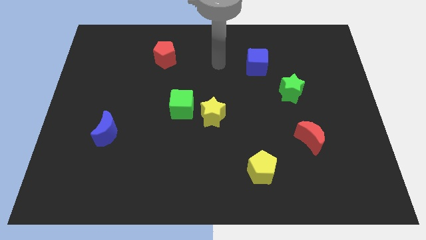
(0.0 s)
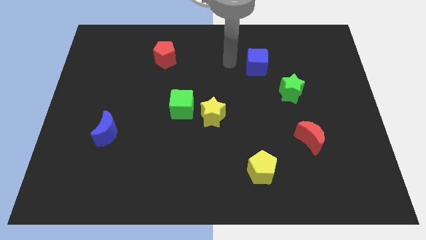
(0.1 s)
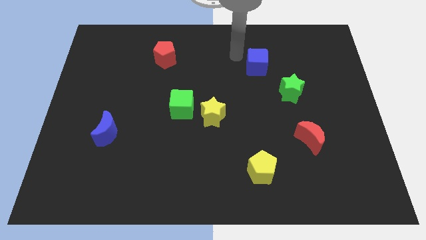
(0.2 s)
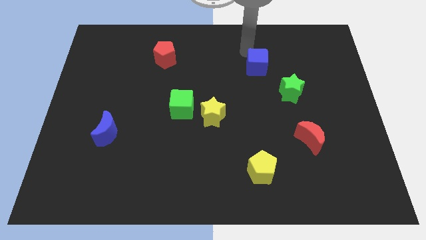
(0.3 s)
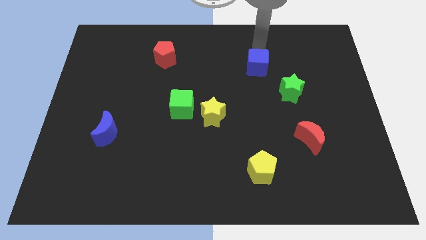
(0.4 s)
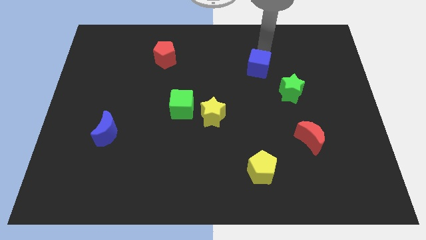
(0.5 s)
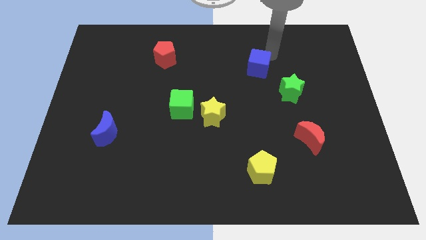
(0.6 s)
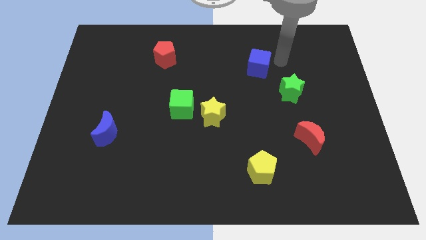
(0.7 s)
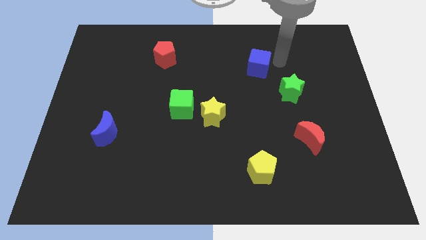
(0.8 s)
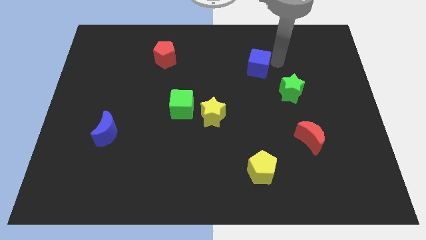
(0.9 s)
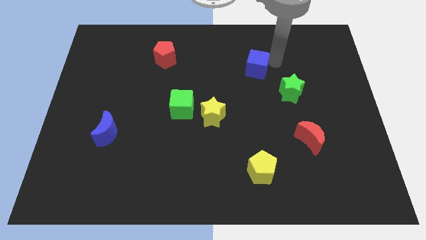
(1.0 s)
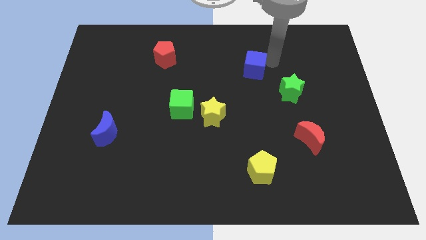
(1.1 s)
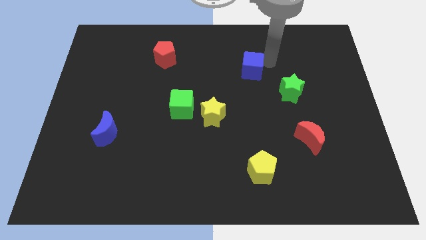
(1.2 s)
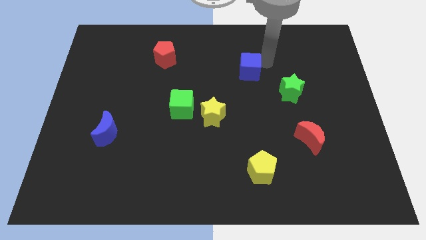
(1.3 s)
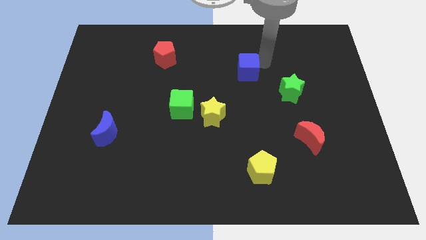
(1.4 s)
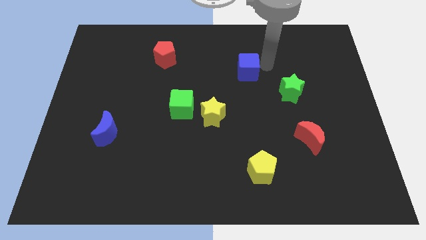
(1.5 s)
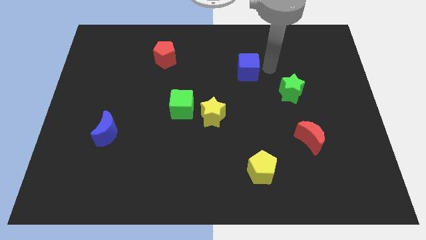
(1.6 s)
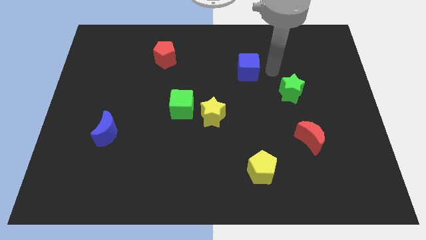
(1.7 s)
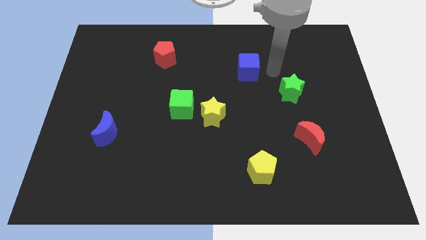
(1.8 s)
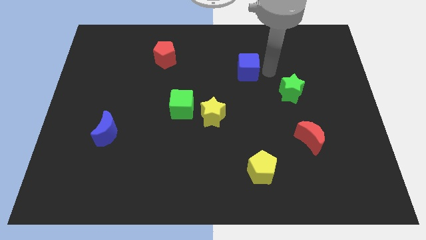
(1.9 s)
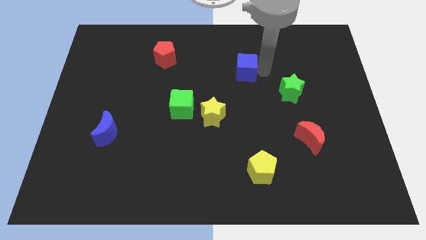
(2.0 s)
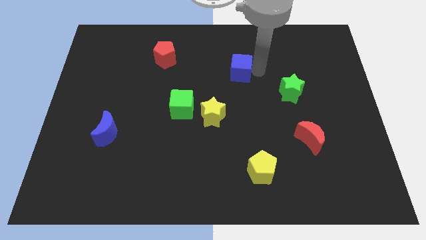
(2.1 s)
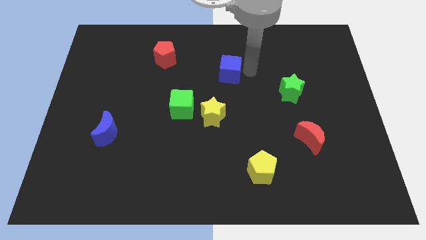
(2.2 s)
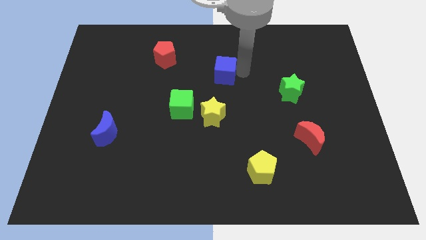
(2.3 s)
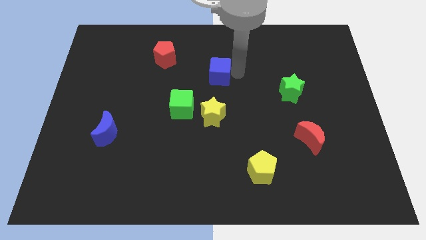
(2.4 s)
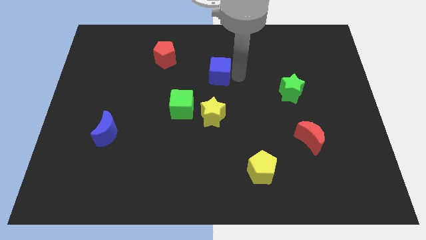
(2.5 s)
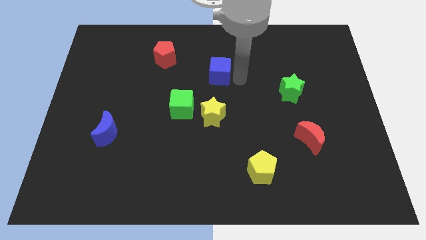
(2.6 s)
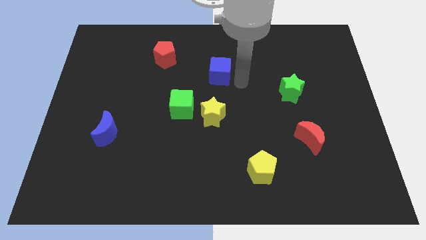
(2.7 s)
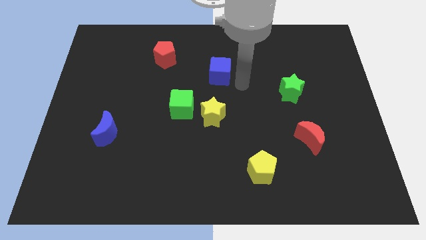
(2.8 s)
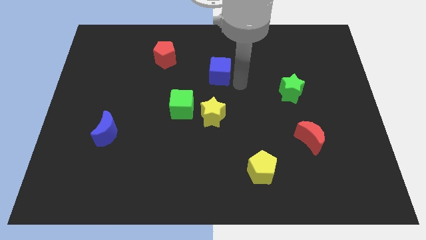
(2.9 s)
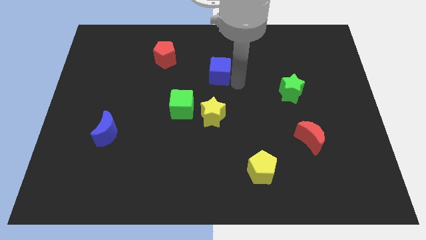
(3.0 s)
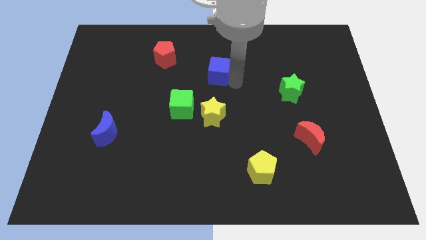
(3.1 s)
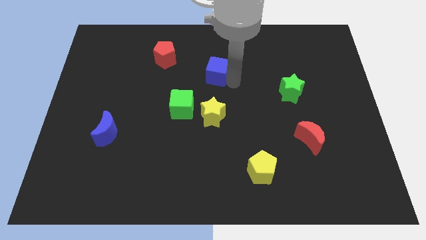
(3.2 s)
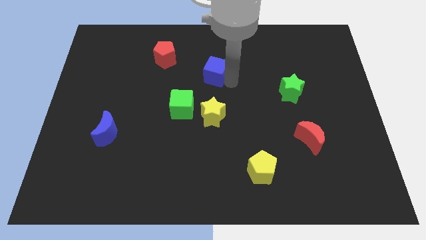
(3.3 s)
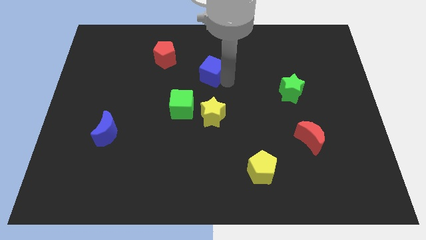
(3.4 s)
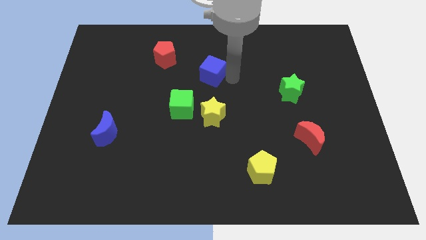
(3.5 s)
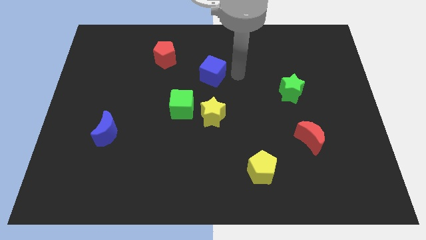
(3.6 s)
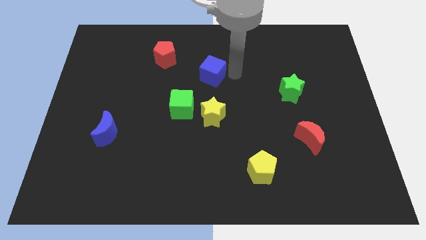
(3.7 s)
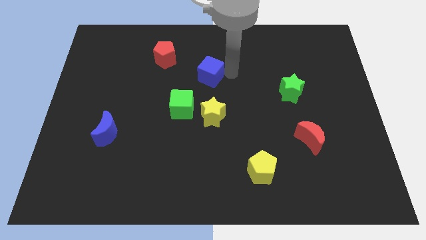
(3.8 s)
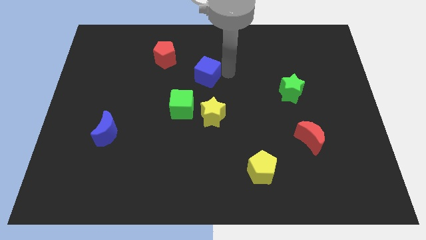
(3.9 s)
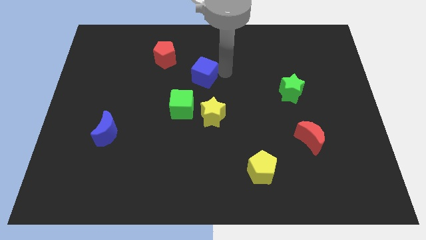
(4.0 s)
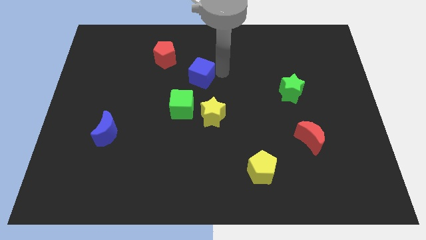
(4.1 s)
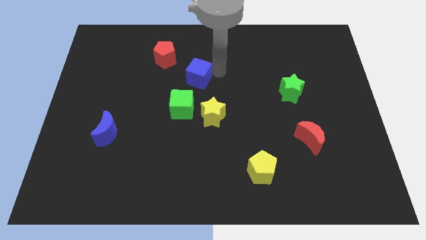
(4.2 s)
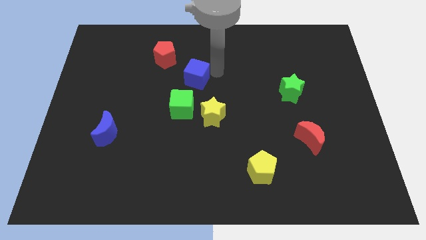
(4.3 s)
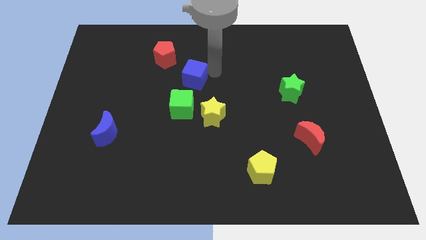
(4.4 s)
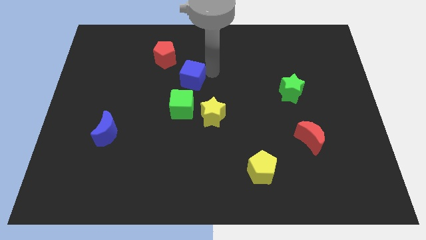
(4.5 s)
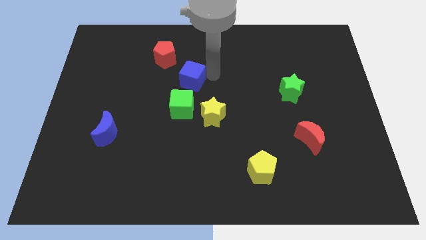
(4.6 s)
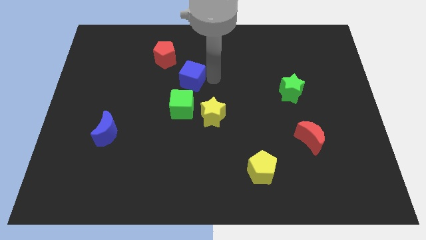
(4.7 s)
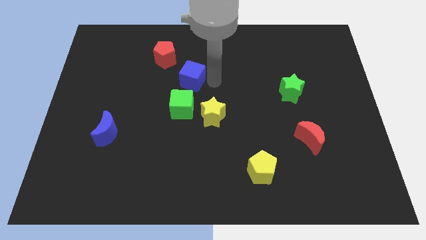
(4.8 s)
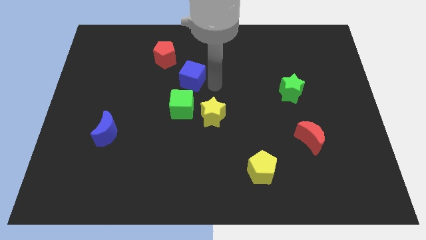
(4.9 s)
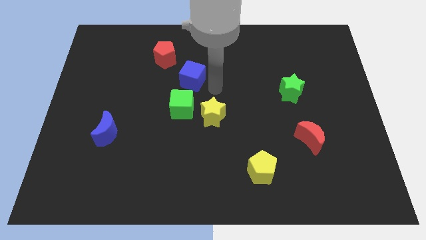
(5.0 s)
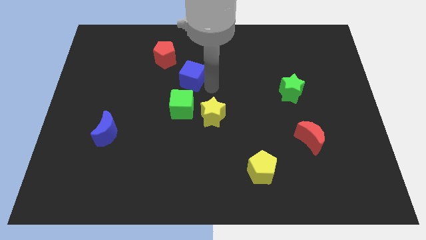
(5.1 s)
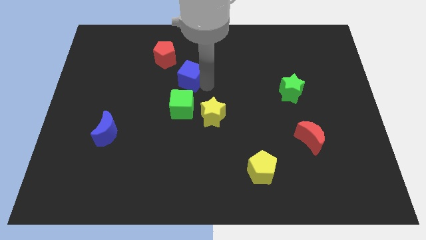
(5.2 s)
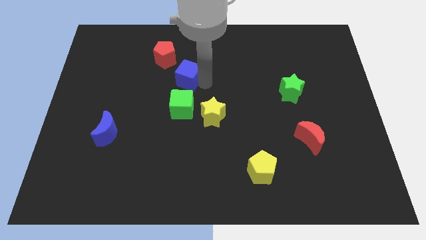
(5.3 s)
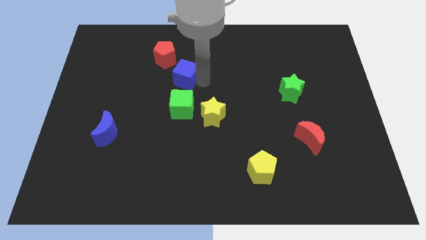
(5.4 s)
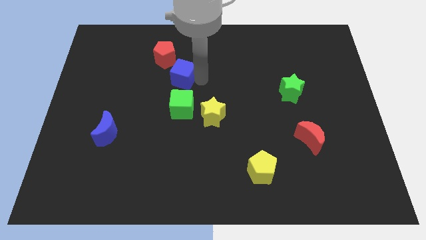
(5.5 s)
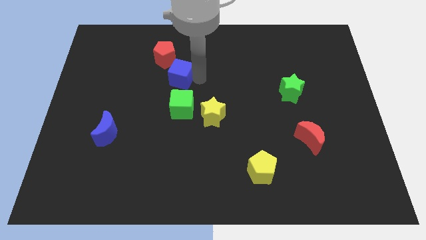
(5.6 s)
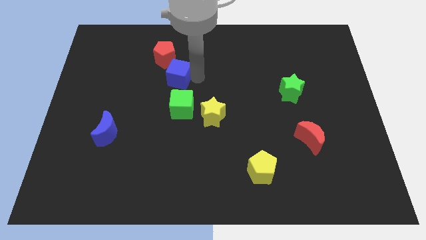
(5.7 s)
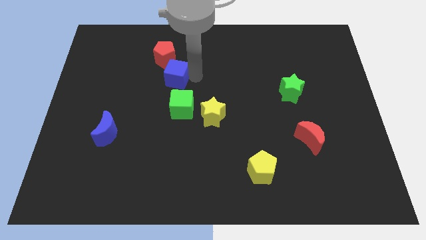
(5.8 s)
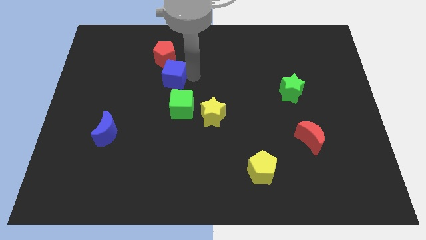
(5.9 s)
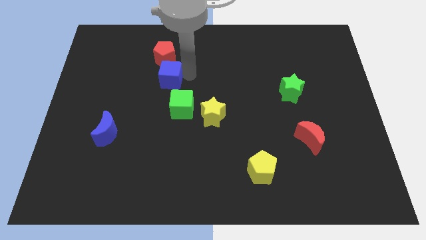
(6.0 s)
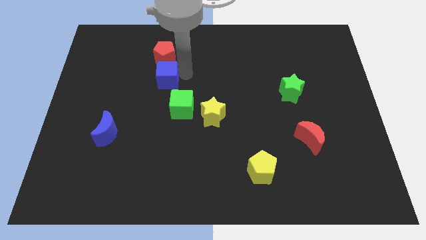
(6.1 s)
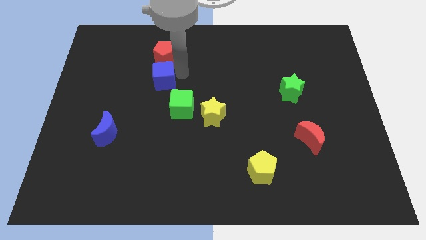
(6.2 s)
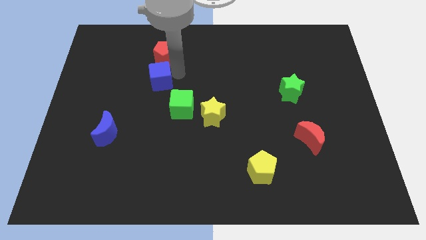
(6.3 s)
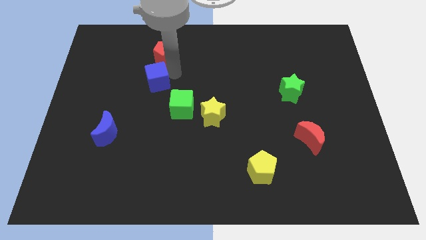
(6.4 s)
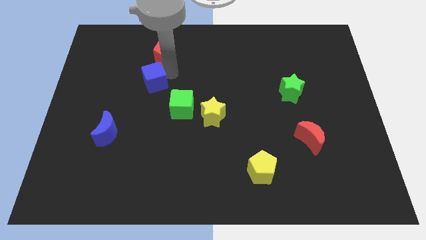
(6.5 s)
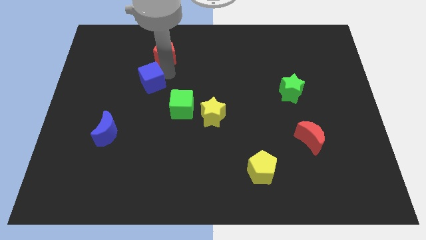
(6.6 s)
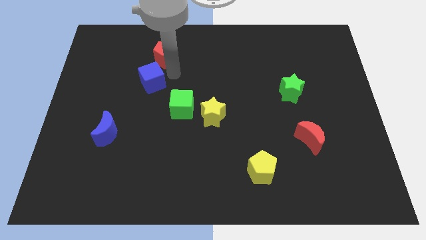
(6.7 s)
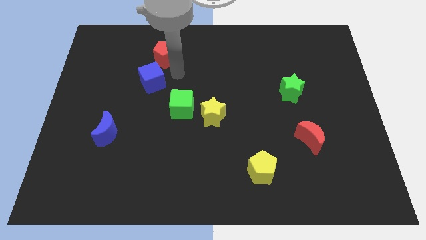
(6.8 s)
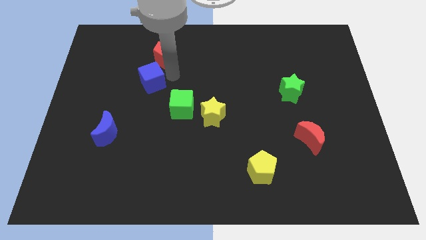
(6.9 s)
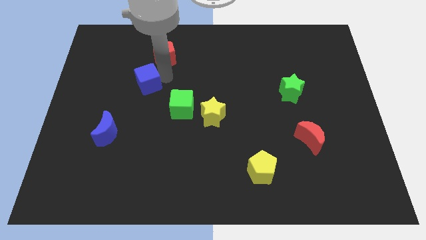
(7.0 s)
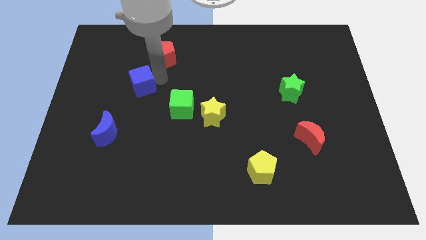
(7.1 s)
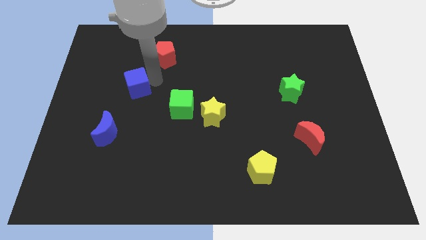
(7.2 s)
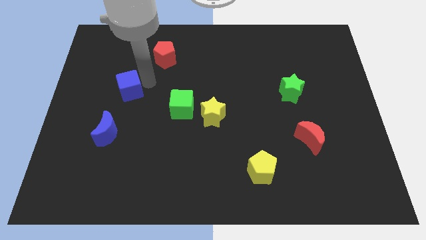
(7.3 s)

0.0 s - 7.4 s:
move the blue cube to the top of the blue moon

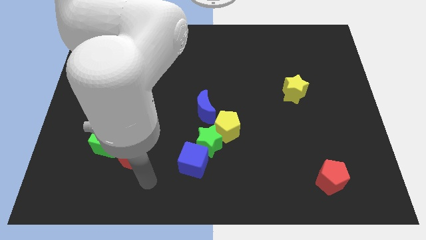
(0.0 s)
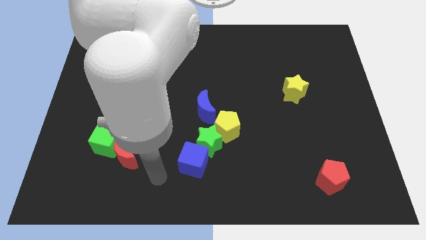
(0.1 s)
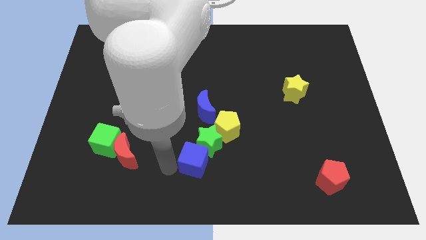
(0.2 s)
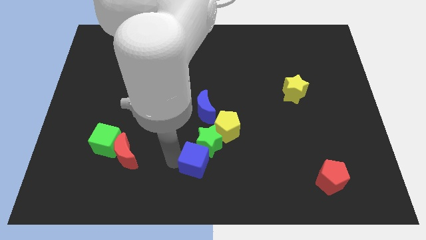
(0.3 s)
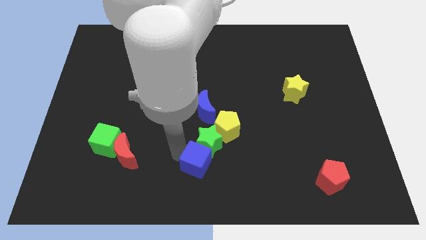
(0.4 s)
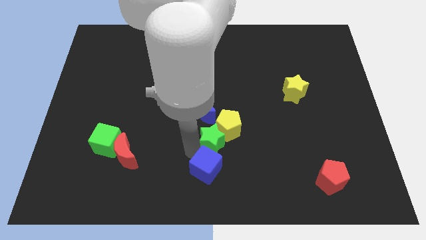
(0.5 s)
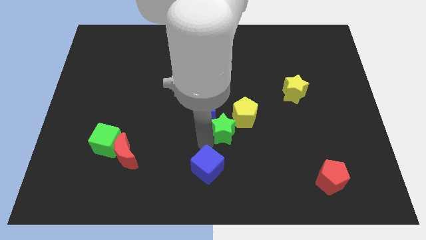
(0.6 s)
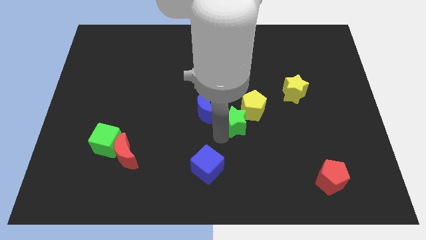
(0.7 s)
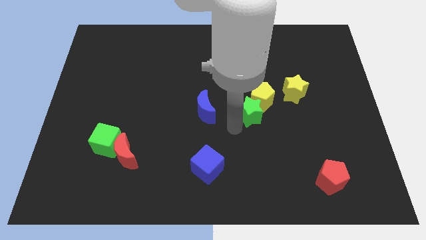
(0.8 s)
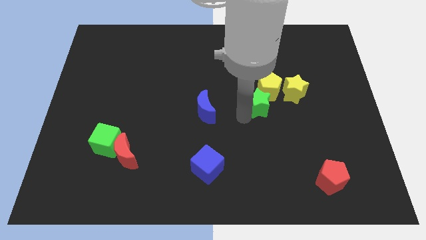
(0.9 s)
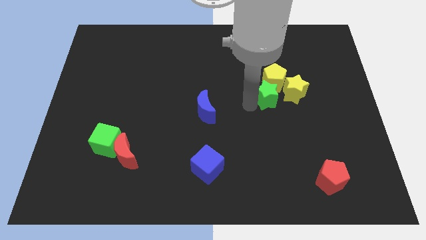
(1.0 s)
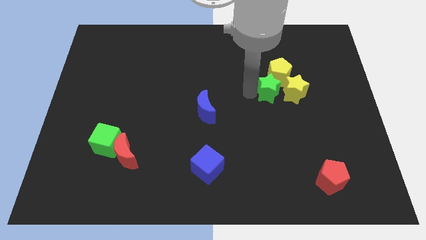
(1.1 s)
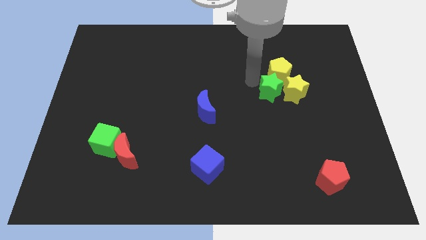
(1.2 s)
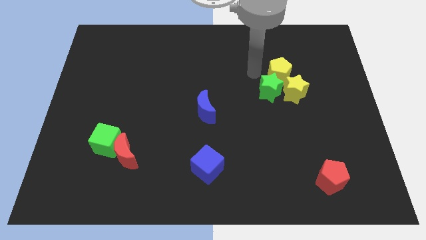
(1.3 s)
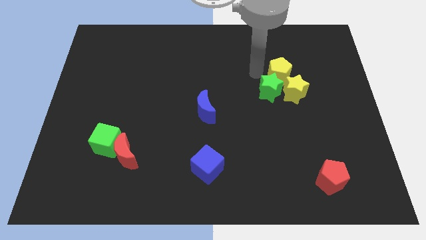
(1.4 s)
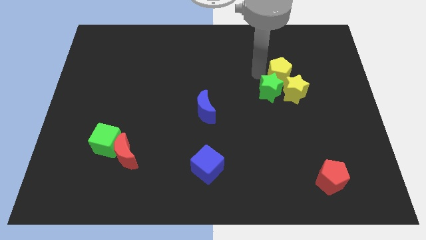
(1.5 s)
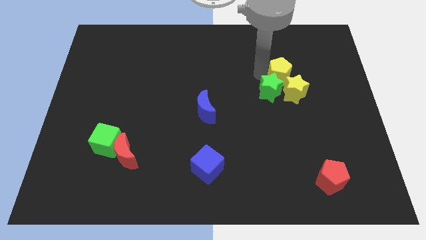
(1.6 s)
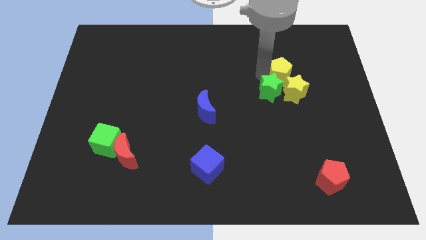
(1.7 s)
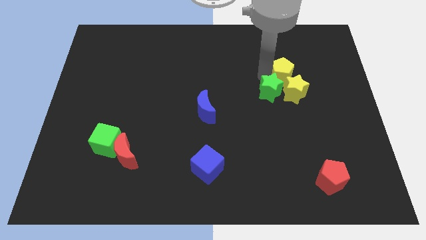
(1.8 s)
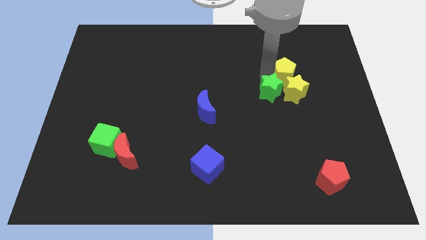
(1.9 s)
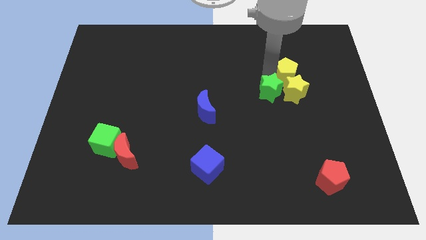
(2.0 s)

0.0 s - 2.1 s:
slide the yellow pentagon to the top right of the yellow star
